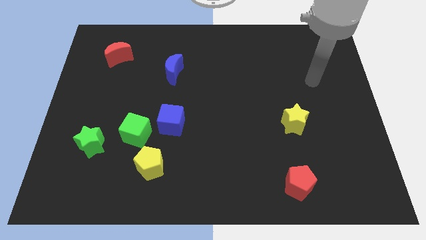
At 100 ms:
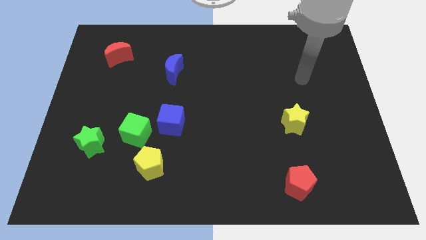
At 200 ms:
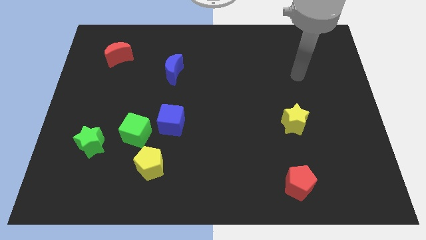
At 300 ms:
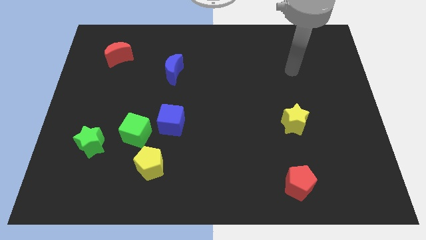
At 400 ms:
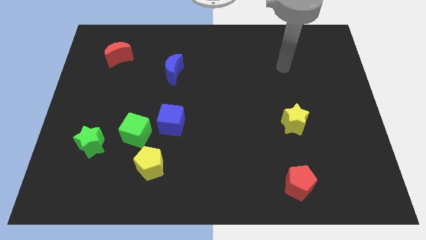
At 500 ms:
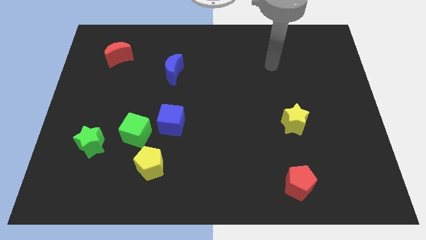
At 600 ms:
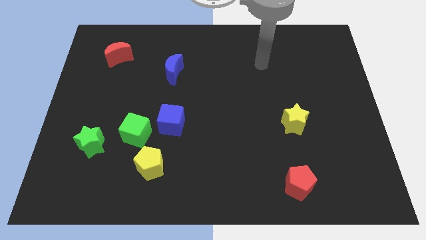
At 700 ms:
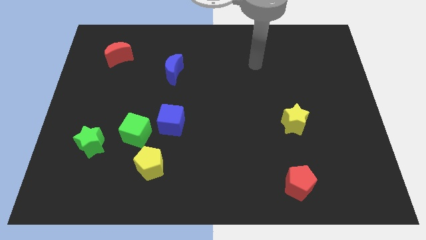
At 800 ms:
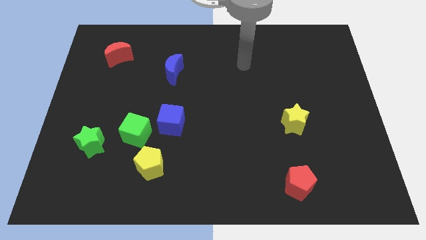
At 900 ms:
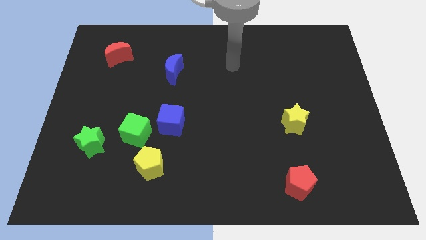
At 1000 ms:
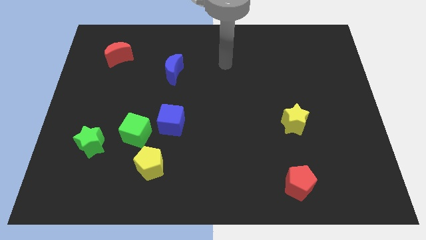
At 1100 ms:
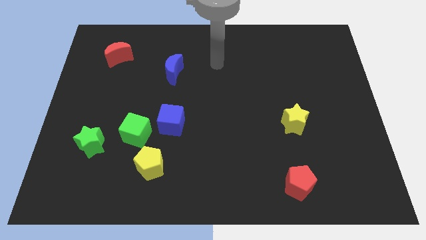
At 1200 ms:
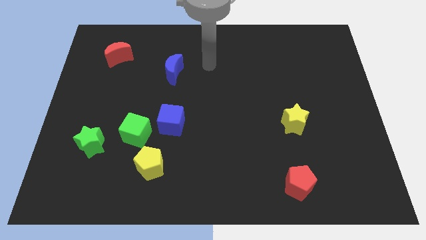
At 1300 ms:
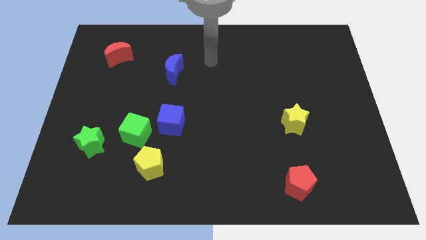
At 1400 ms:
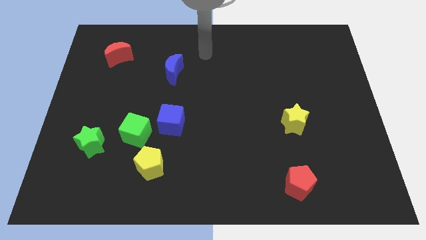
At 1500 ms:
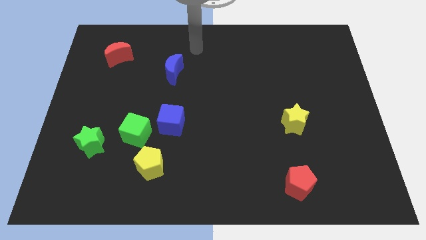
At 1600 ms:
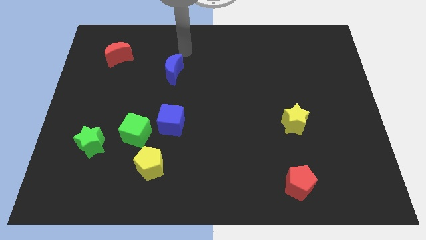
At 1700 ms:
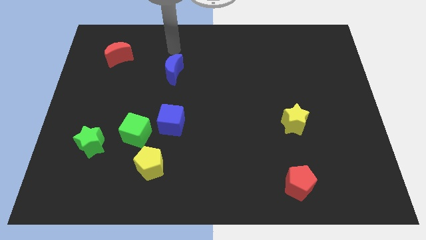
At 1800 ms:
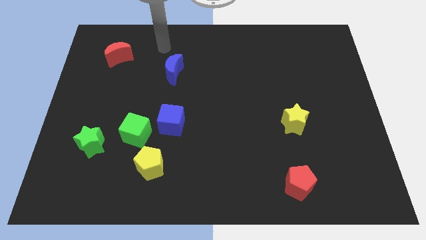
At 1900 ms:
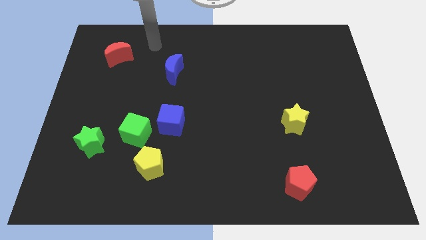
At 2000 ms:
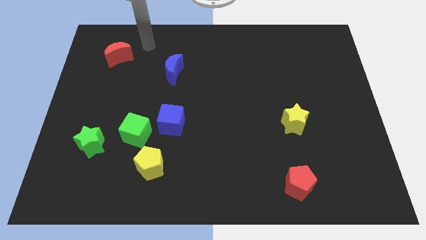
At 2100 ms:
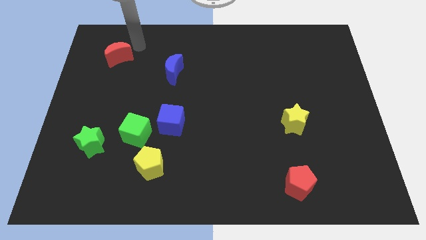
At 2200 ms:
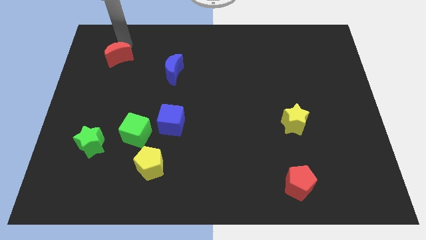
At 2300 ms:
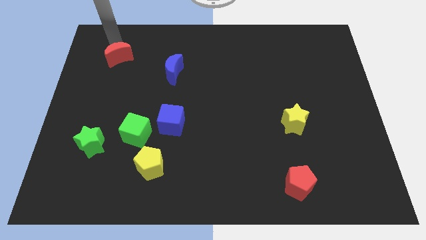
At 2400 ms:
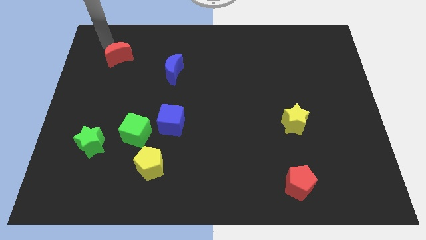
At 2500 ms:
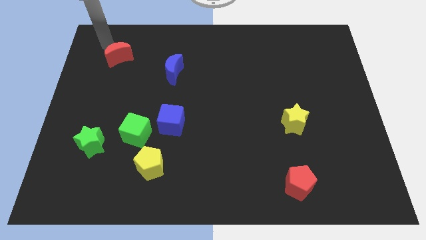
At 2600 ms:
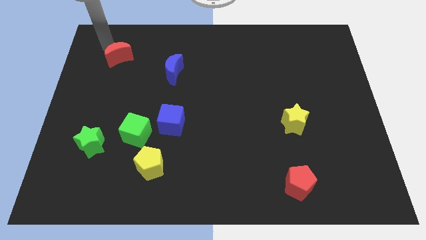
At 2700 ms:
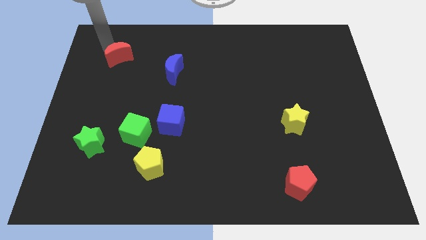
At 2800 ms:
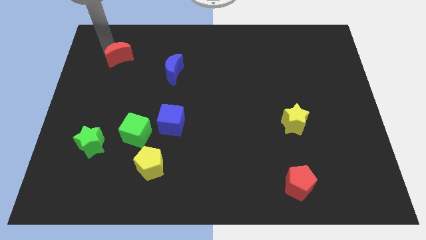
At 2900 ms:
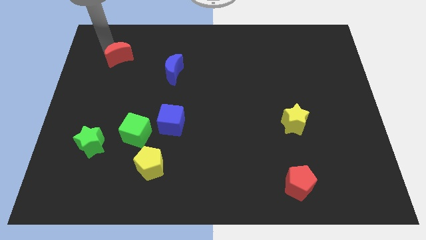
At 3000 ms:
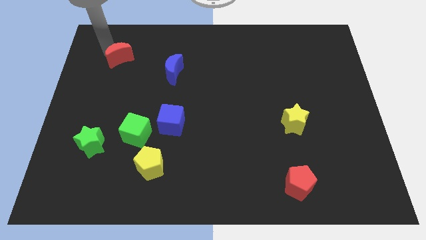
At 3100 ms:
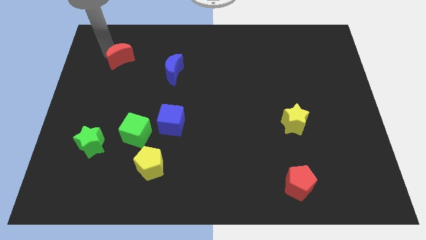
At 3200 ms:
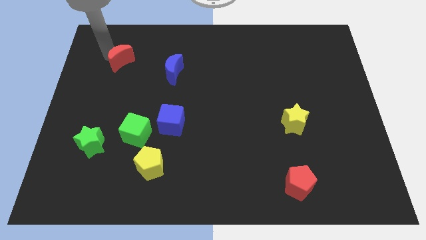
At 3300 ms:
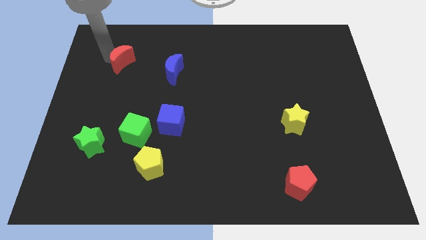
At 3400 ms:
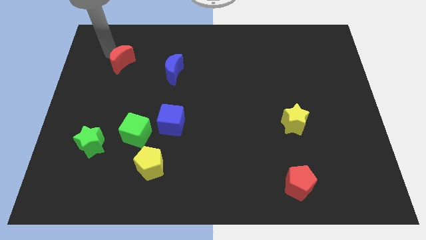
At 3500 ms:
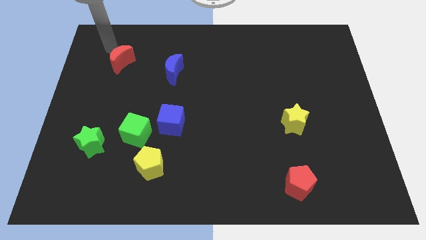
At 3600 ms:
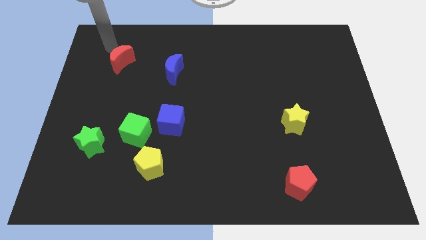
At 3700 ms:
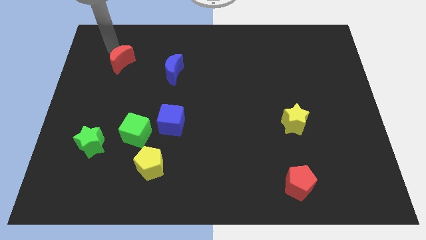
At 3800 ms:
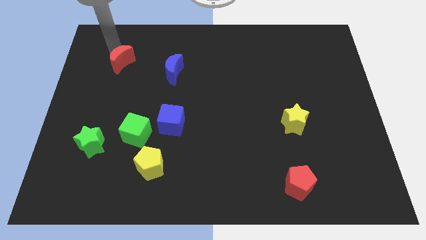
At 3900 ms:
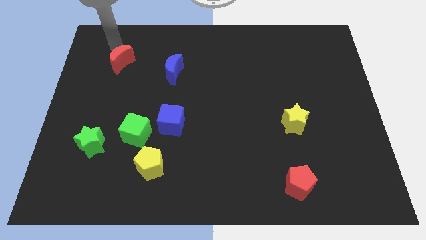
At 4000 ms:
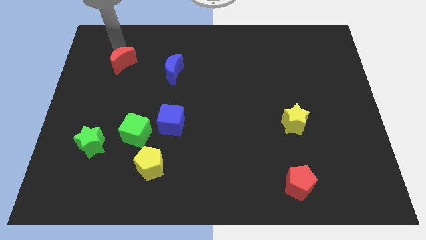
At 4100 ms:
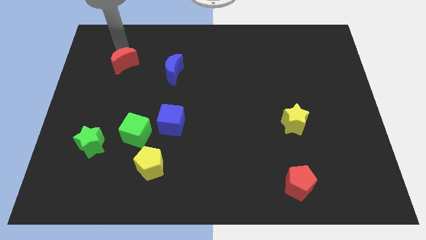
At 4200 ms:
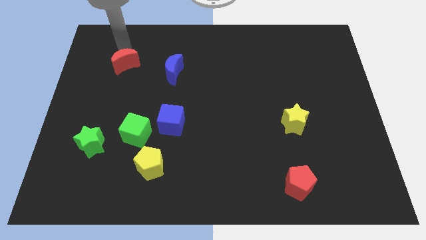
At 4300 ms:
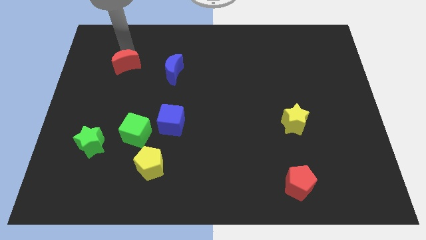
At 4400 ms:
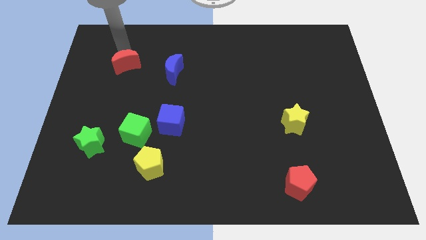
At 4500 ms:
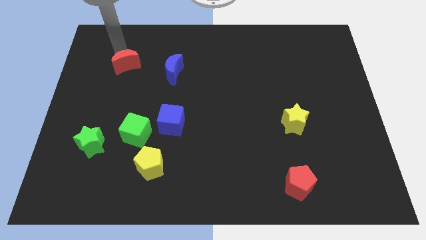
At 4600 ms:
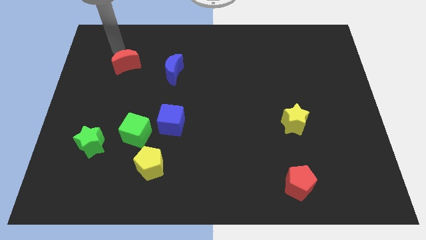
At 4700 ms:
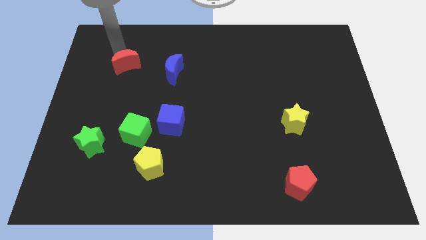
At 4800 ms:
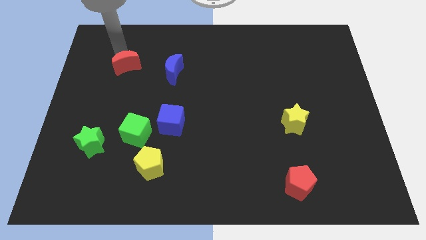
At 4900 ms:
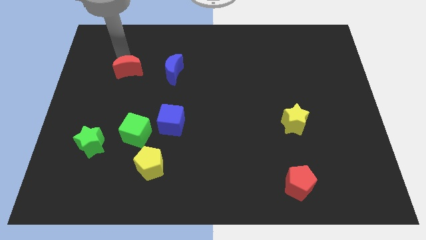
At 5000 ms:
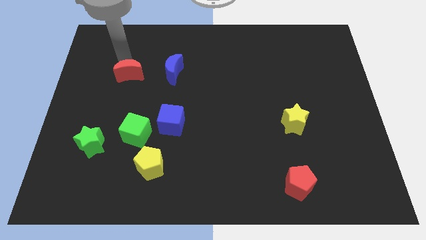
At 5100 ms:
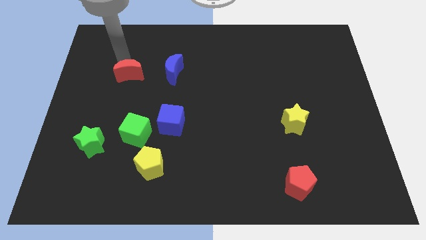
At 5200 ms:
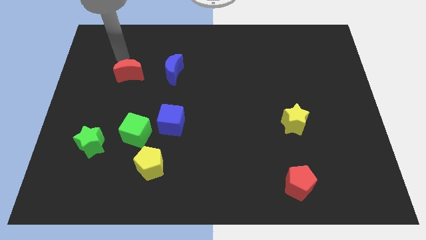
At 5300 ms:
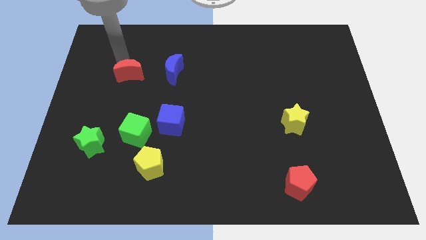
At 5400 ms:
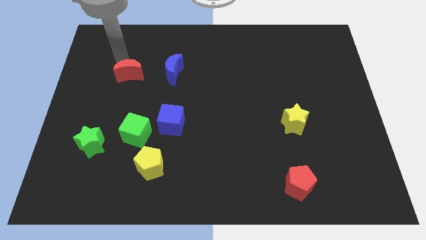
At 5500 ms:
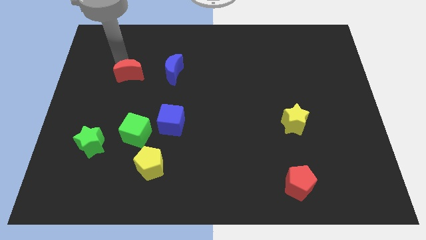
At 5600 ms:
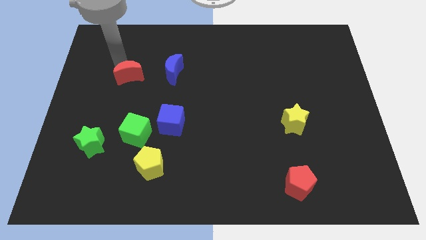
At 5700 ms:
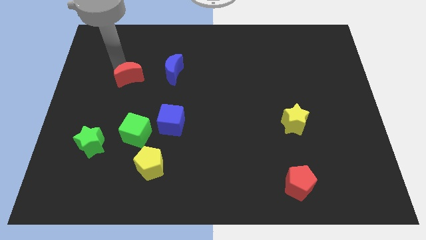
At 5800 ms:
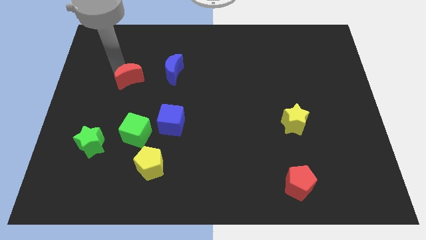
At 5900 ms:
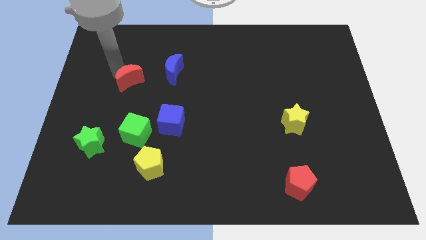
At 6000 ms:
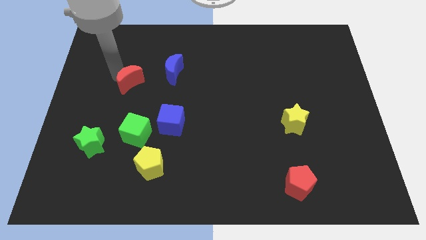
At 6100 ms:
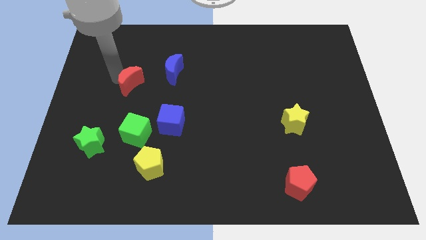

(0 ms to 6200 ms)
push the red moon to the top side of the green cube

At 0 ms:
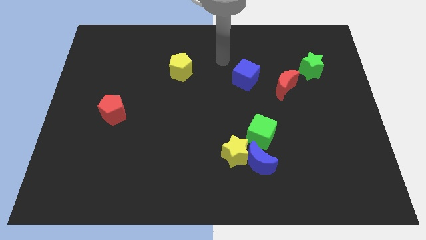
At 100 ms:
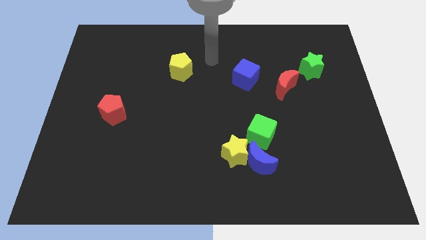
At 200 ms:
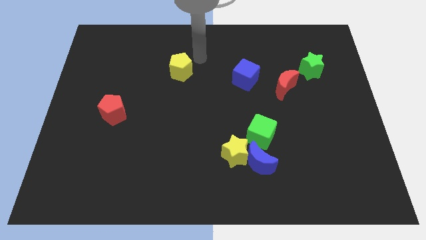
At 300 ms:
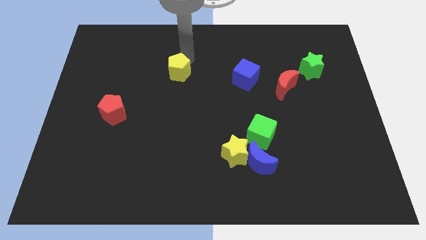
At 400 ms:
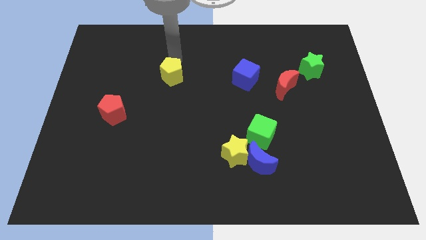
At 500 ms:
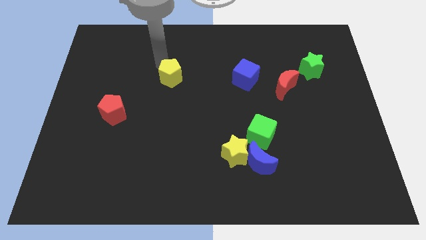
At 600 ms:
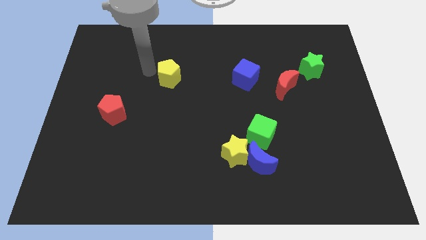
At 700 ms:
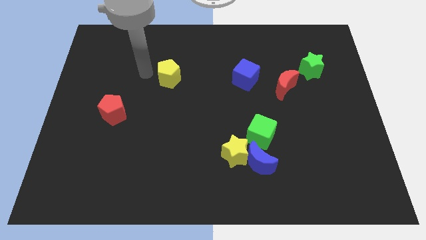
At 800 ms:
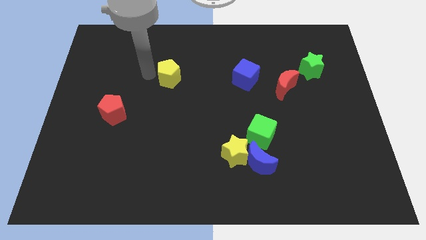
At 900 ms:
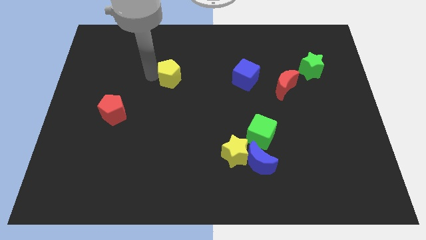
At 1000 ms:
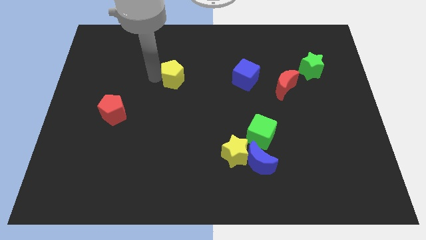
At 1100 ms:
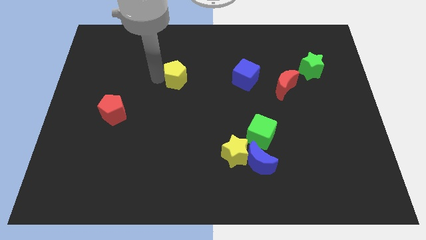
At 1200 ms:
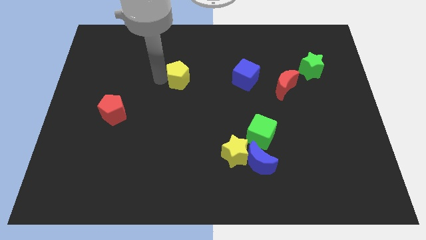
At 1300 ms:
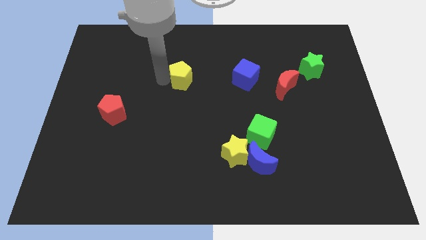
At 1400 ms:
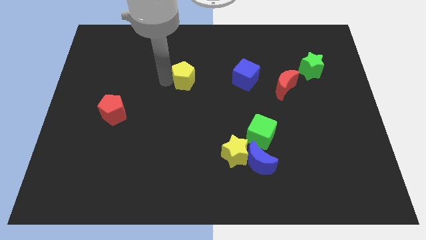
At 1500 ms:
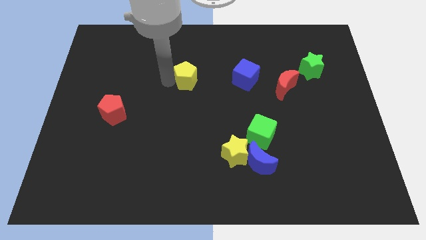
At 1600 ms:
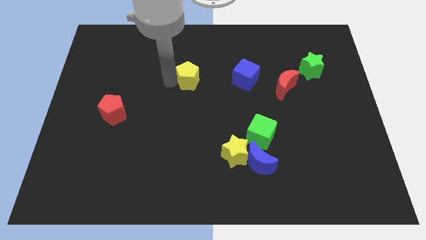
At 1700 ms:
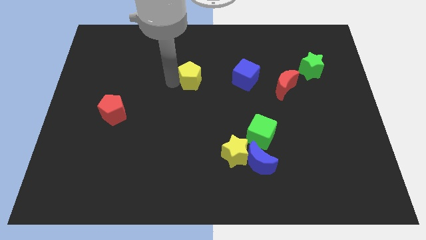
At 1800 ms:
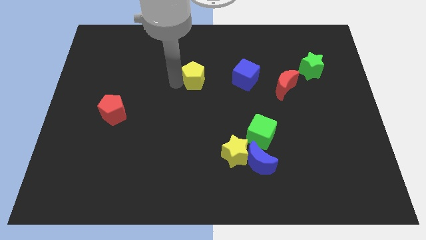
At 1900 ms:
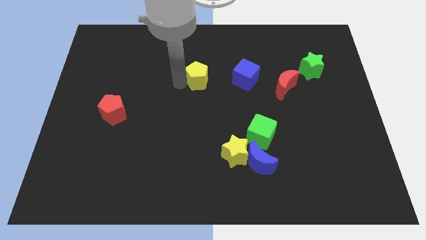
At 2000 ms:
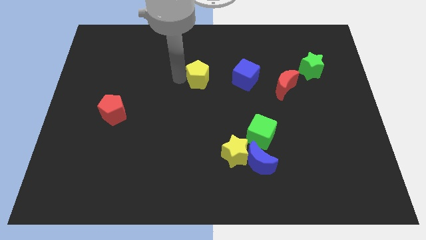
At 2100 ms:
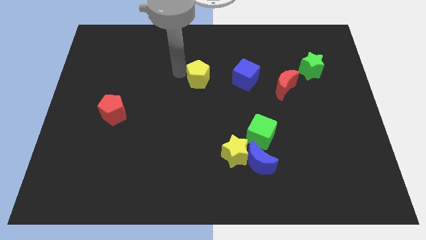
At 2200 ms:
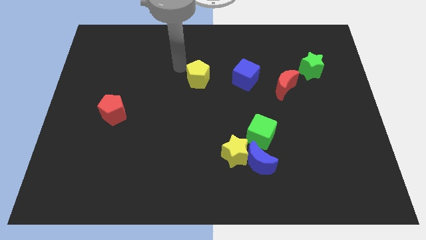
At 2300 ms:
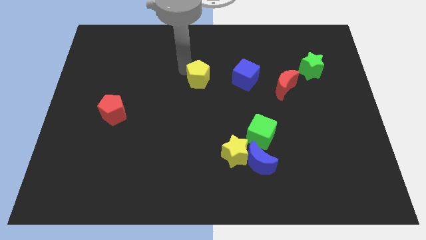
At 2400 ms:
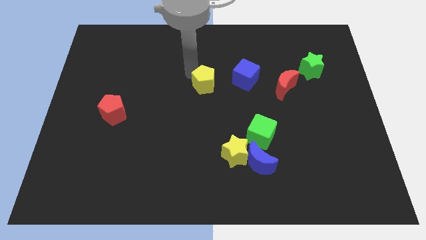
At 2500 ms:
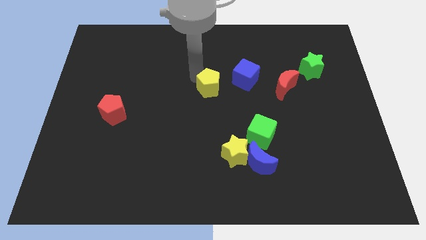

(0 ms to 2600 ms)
move the yellow pentagon to the bottom left side of the blue cube
